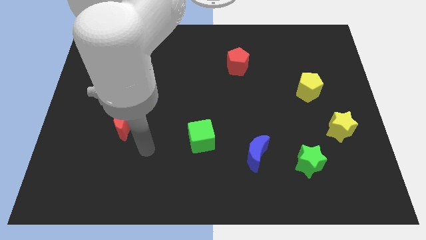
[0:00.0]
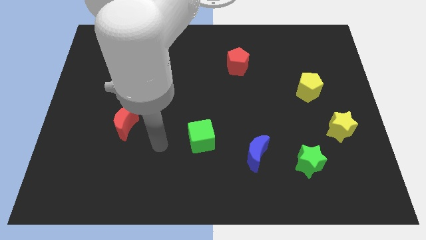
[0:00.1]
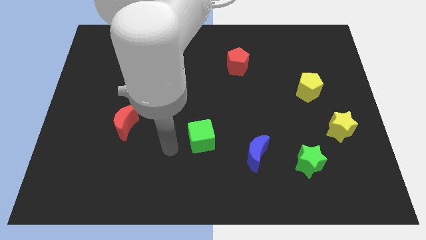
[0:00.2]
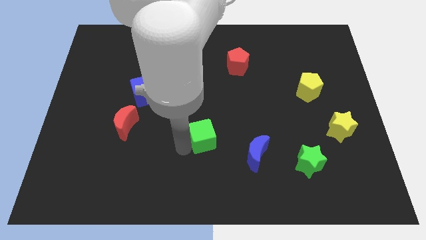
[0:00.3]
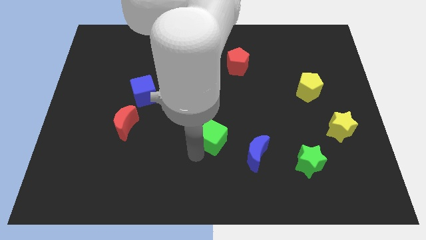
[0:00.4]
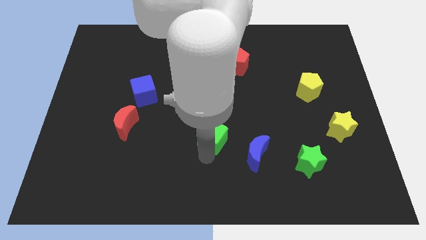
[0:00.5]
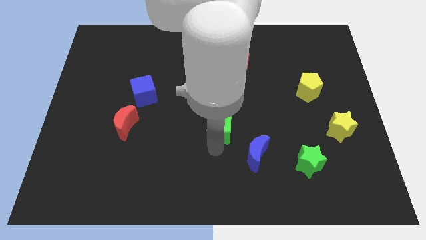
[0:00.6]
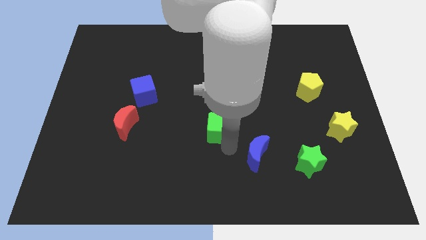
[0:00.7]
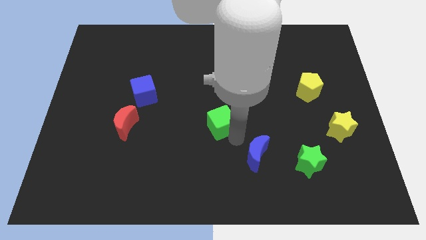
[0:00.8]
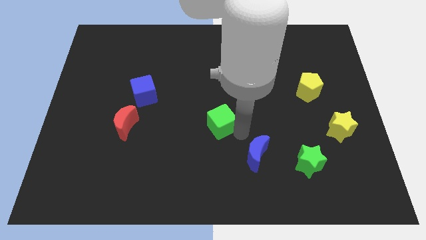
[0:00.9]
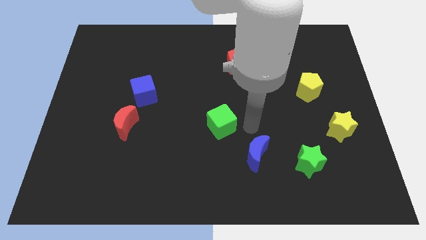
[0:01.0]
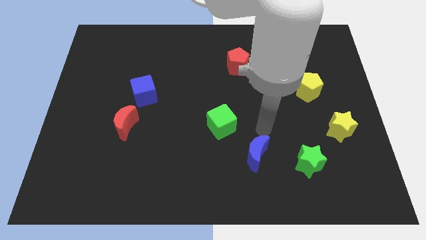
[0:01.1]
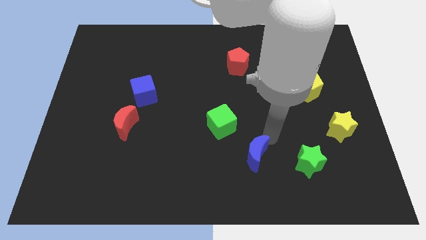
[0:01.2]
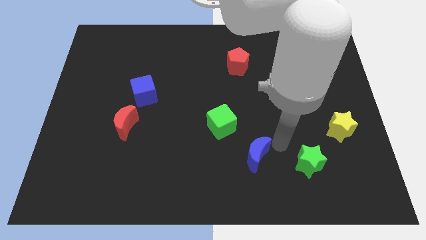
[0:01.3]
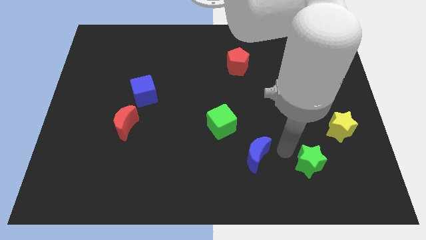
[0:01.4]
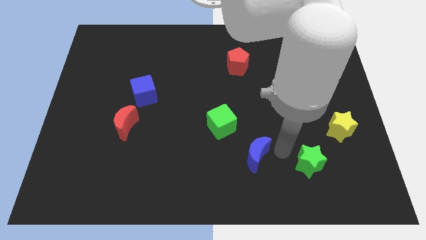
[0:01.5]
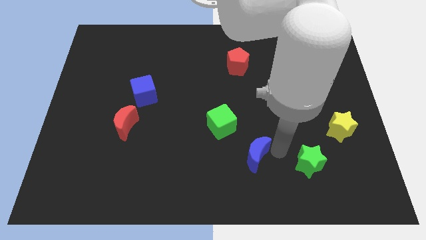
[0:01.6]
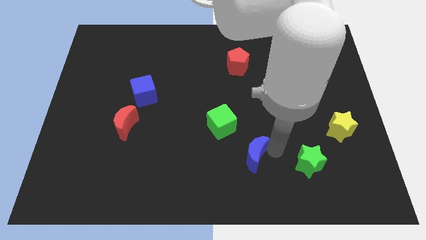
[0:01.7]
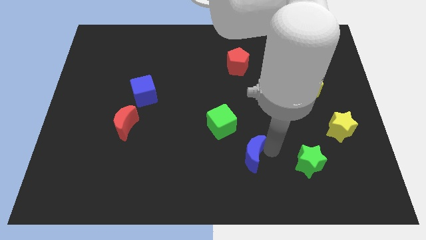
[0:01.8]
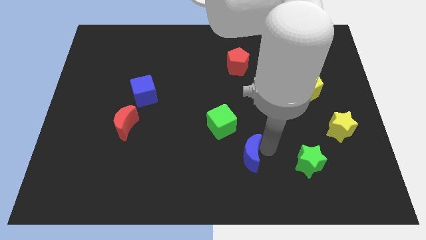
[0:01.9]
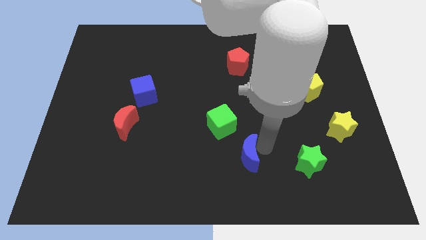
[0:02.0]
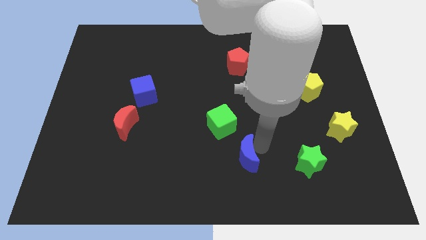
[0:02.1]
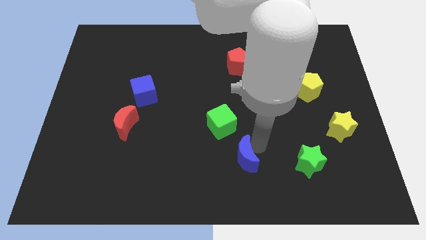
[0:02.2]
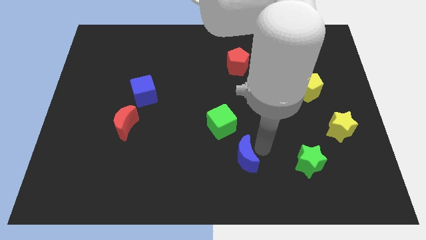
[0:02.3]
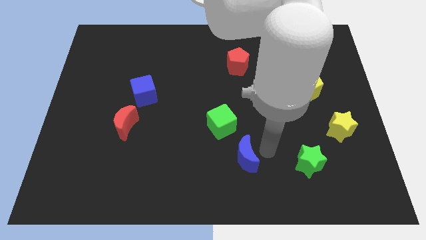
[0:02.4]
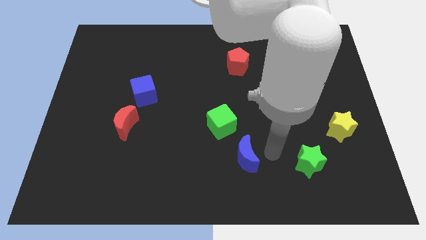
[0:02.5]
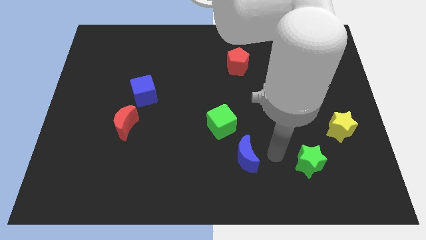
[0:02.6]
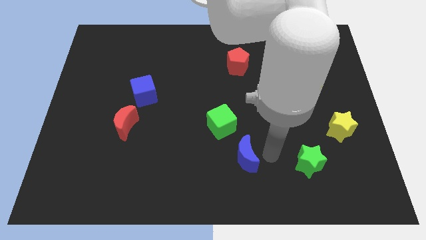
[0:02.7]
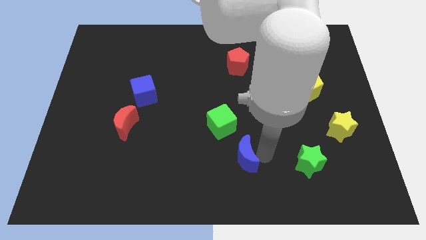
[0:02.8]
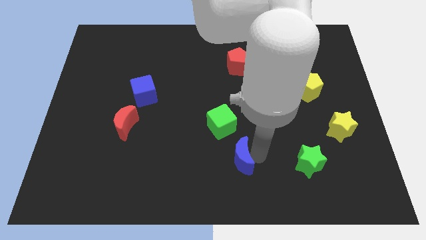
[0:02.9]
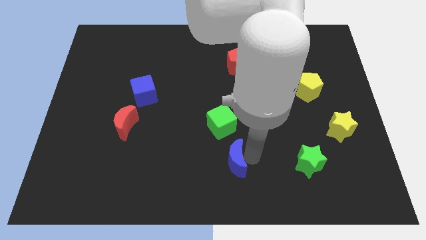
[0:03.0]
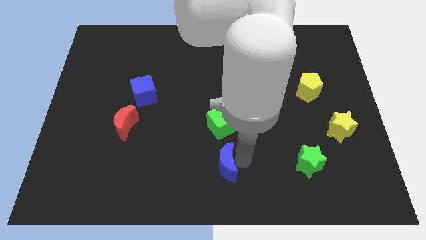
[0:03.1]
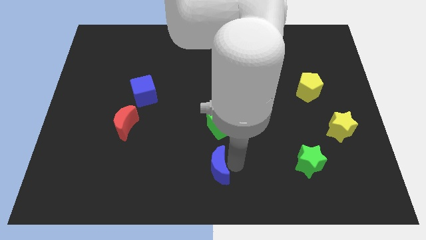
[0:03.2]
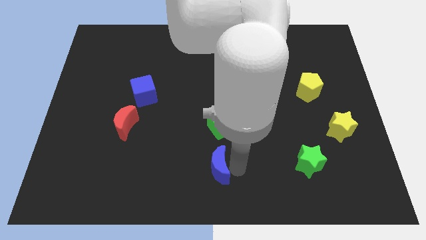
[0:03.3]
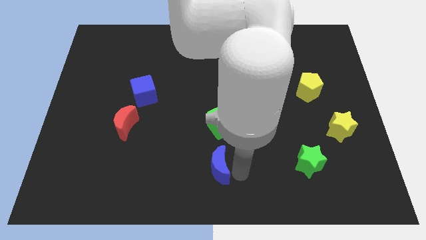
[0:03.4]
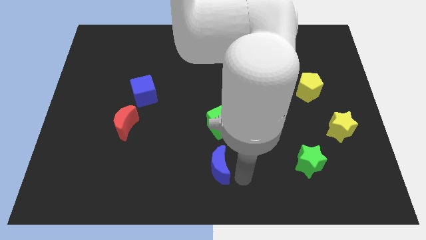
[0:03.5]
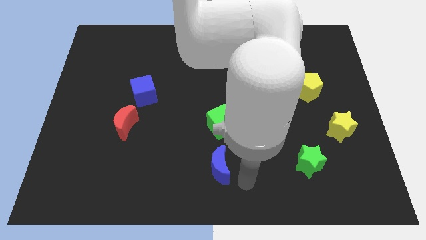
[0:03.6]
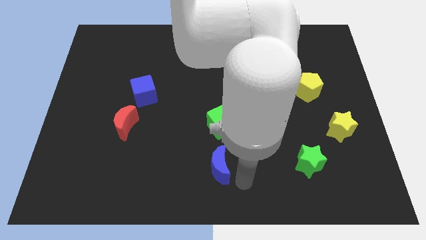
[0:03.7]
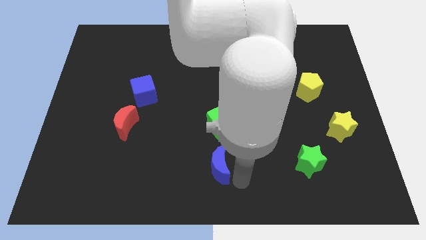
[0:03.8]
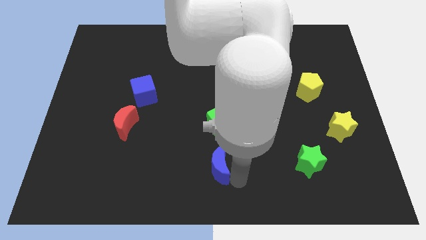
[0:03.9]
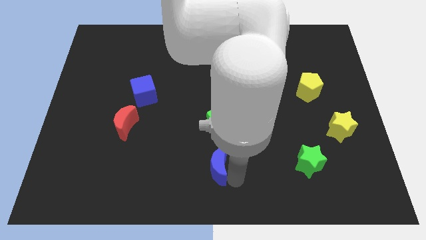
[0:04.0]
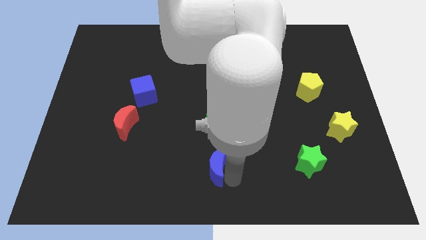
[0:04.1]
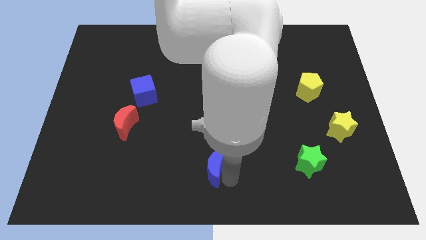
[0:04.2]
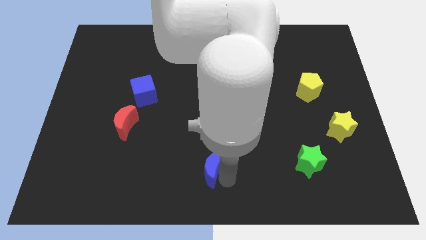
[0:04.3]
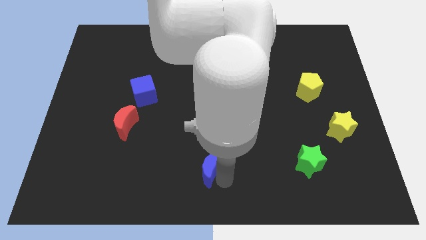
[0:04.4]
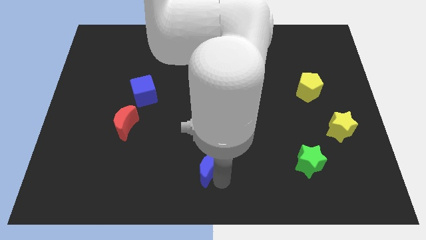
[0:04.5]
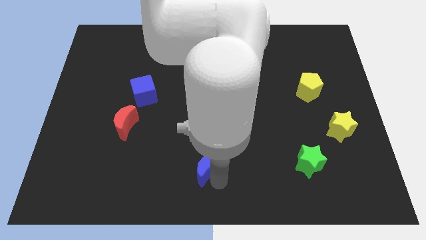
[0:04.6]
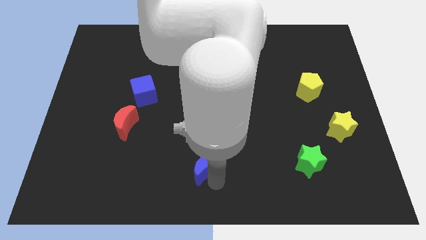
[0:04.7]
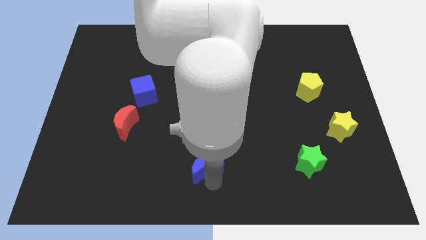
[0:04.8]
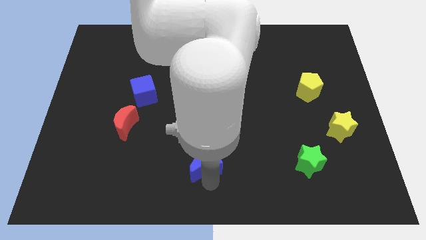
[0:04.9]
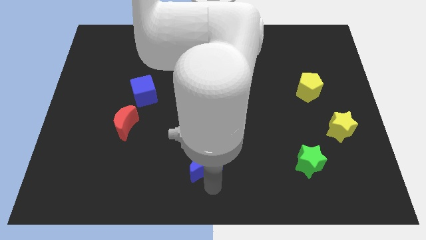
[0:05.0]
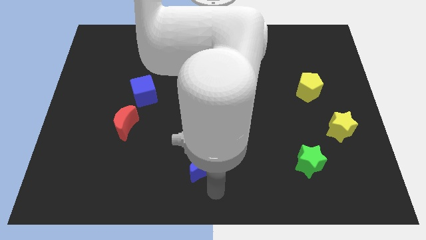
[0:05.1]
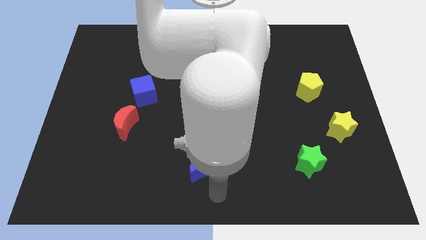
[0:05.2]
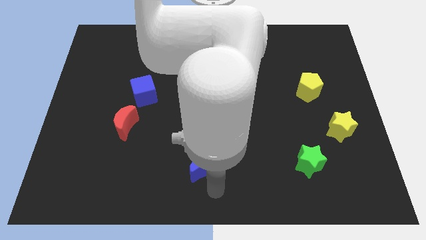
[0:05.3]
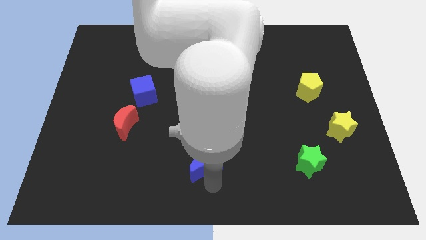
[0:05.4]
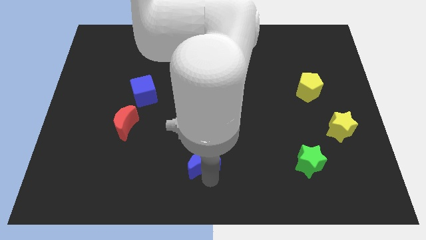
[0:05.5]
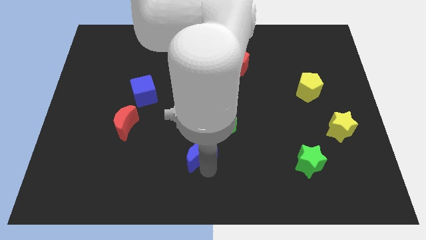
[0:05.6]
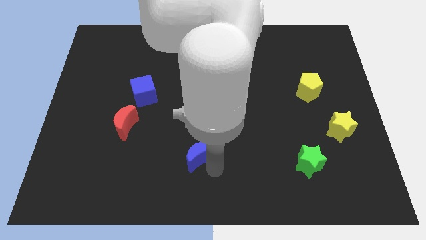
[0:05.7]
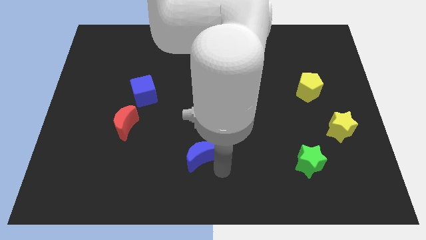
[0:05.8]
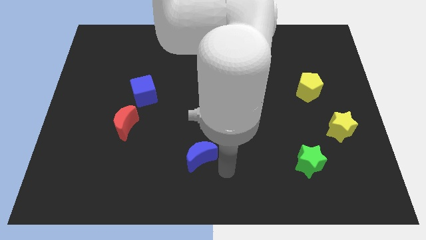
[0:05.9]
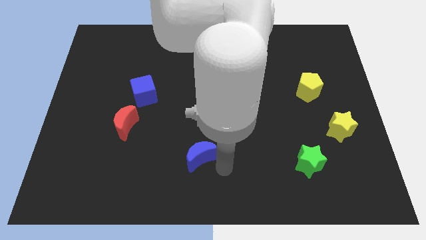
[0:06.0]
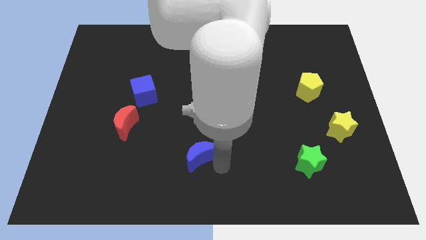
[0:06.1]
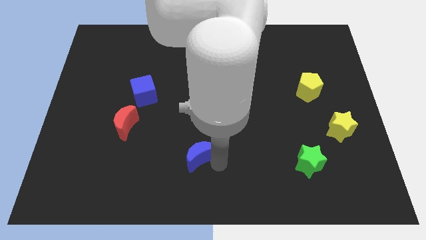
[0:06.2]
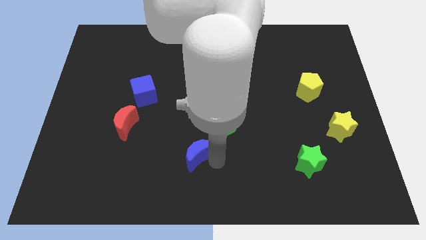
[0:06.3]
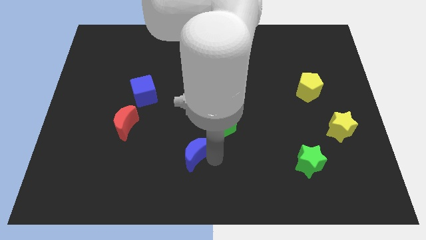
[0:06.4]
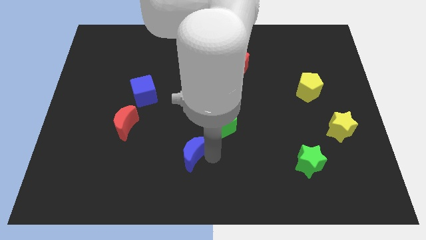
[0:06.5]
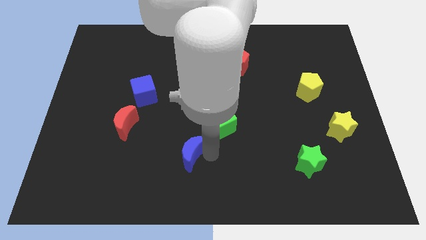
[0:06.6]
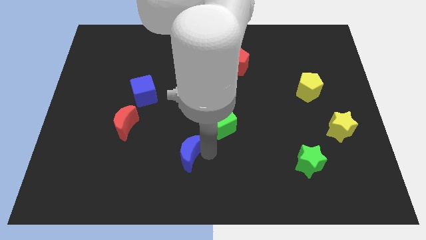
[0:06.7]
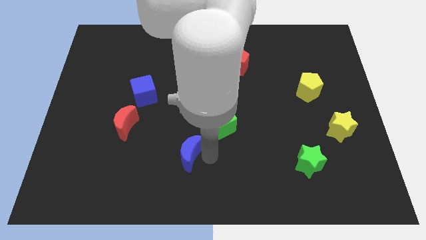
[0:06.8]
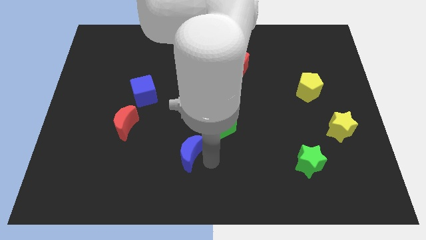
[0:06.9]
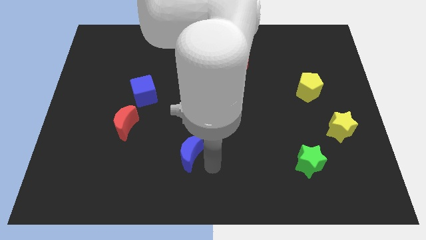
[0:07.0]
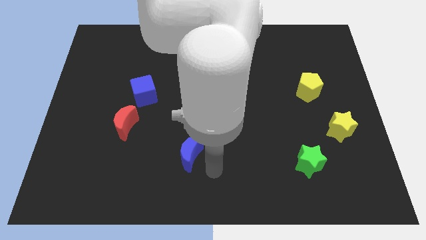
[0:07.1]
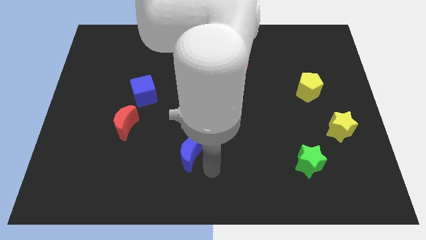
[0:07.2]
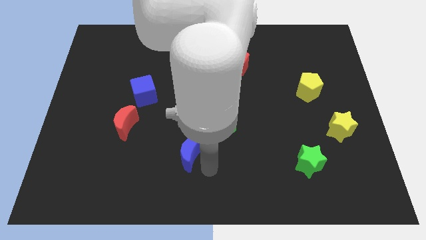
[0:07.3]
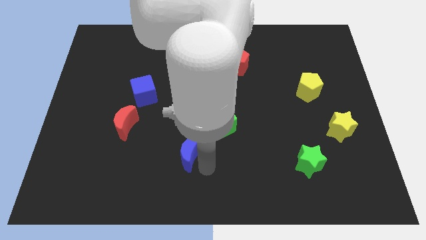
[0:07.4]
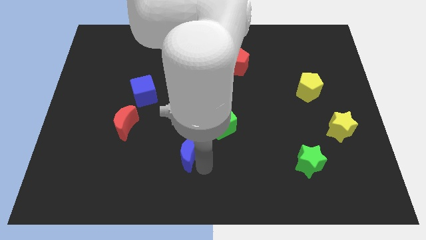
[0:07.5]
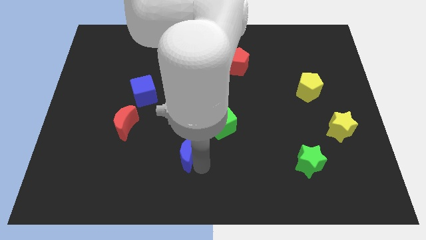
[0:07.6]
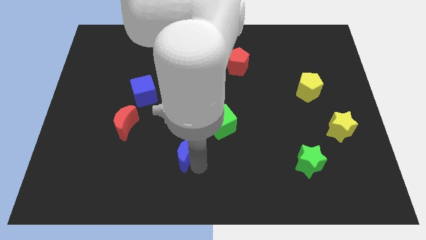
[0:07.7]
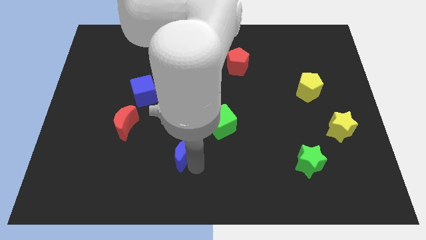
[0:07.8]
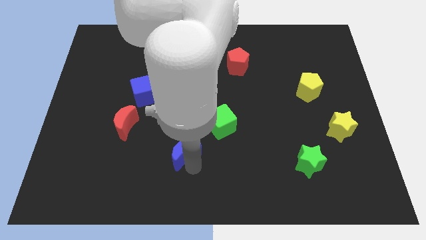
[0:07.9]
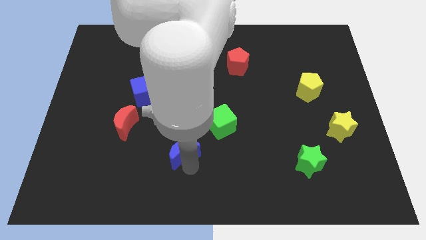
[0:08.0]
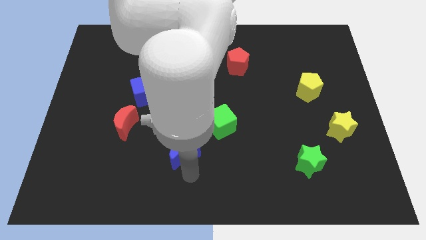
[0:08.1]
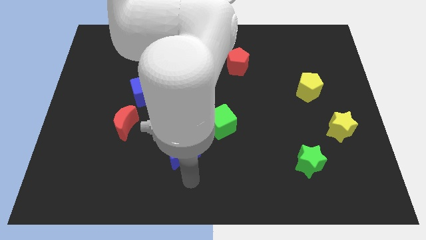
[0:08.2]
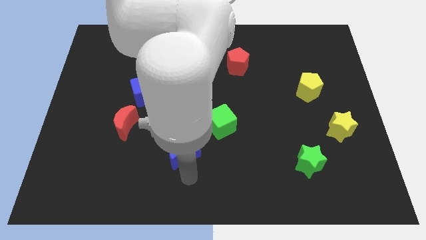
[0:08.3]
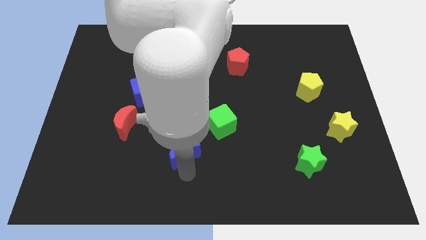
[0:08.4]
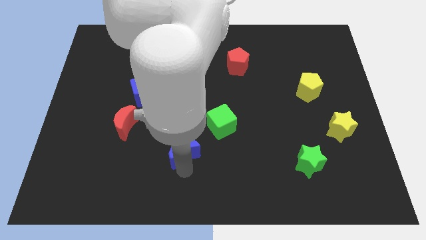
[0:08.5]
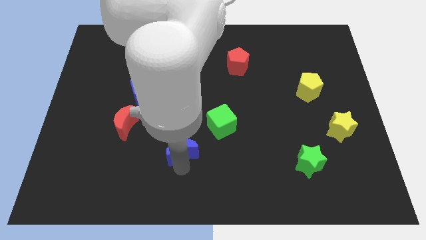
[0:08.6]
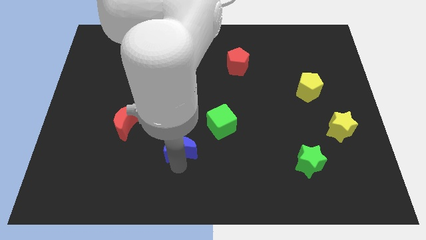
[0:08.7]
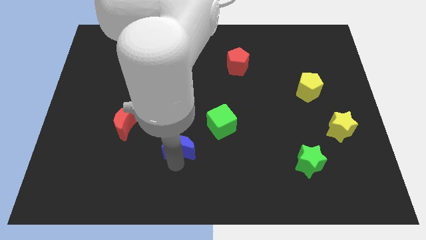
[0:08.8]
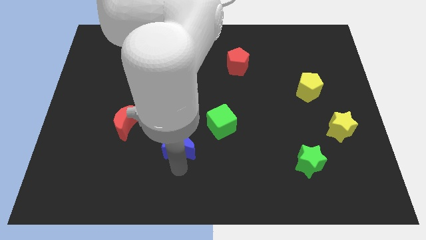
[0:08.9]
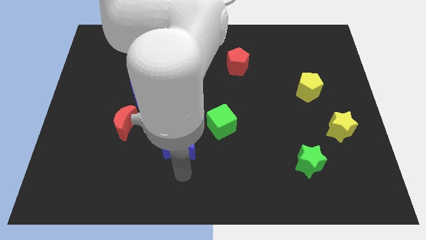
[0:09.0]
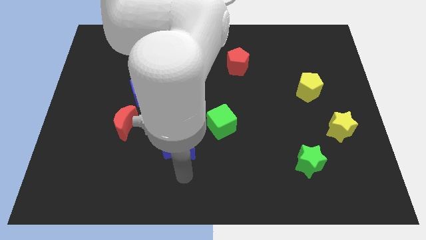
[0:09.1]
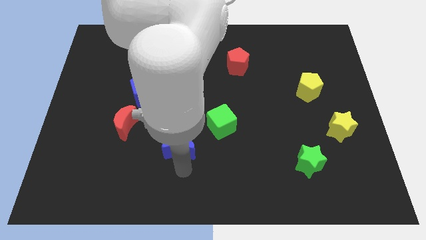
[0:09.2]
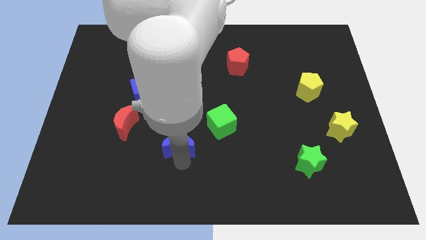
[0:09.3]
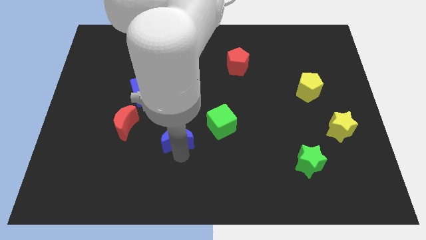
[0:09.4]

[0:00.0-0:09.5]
slide the blue moon to the left of the green cube
